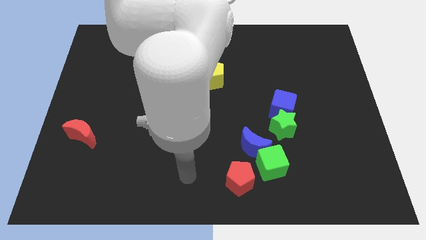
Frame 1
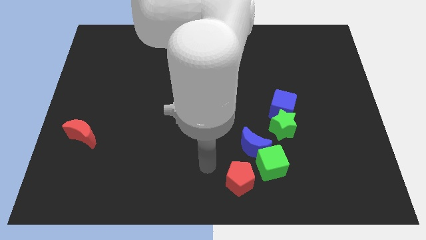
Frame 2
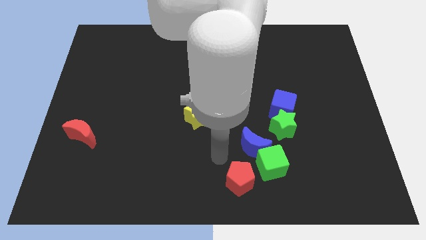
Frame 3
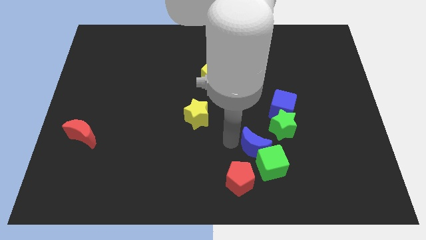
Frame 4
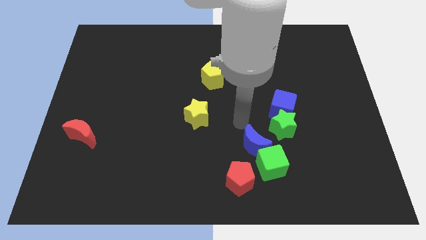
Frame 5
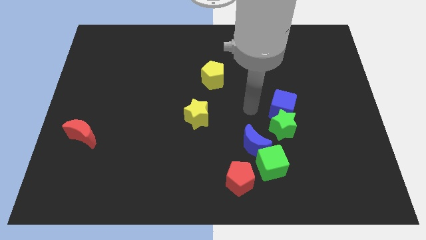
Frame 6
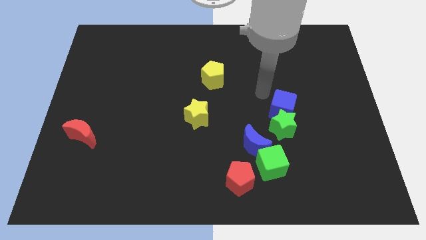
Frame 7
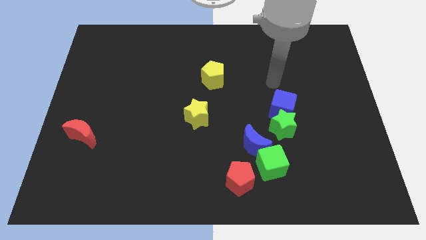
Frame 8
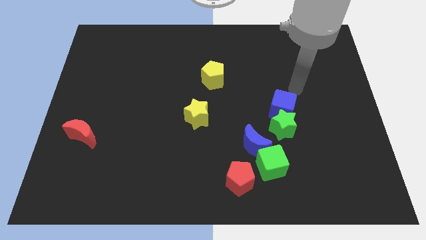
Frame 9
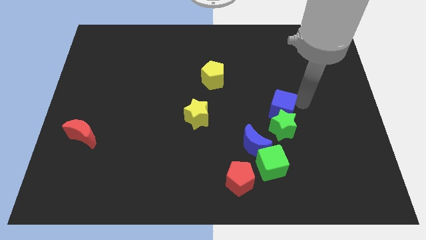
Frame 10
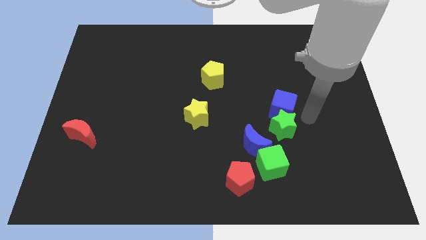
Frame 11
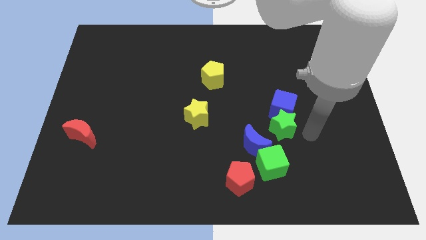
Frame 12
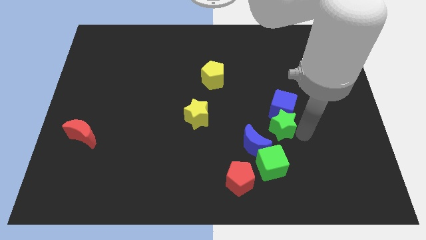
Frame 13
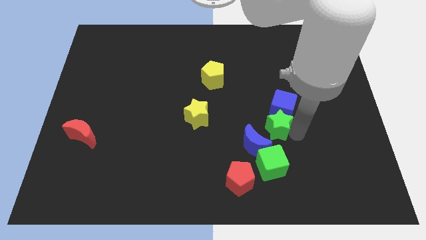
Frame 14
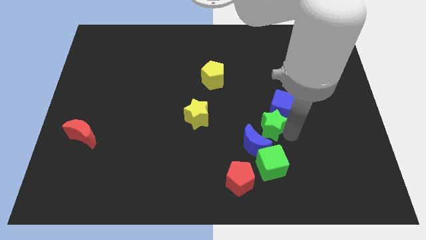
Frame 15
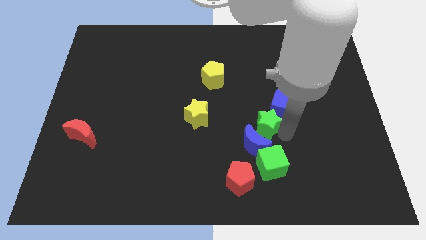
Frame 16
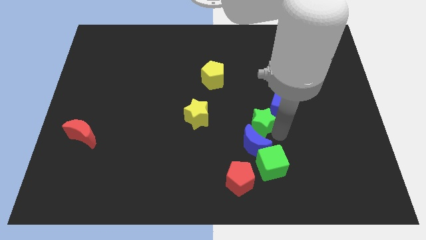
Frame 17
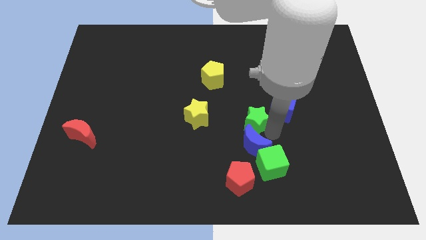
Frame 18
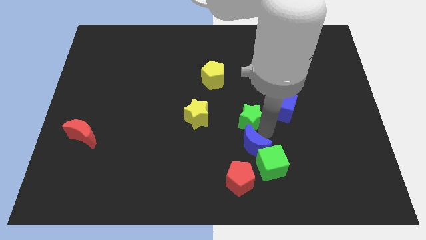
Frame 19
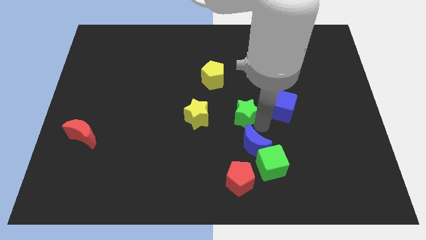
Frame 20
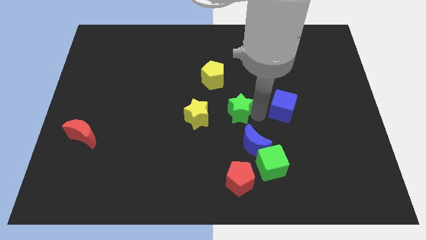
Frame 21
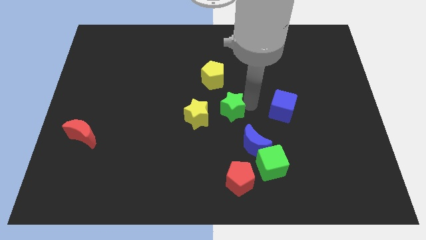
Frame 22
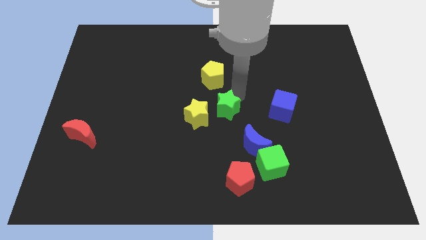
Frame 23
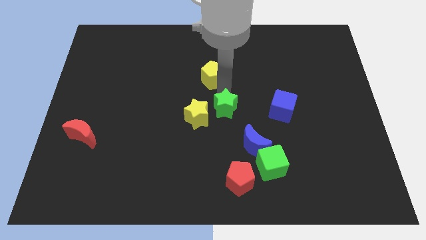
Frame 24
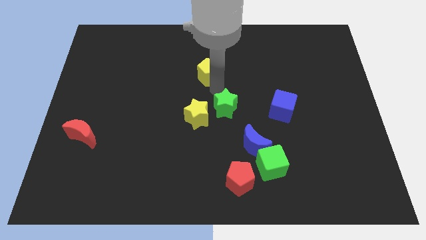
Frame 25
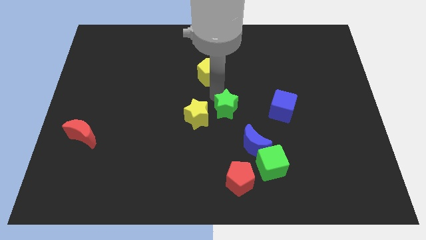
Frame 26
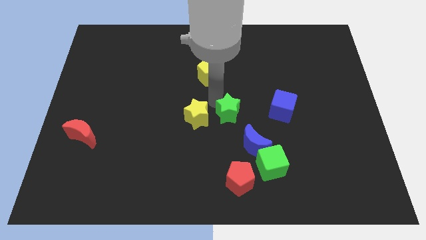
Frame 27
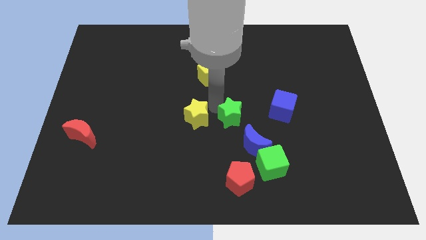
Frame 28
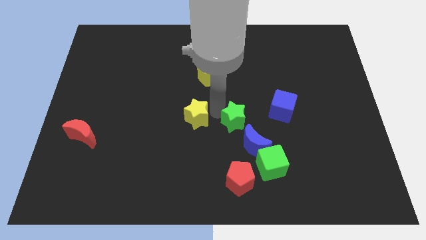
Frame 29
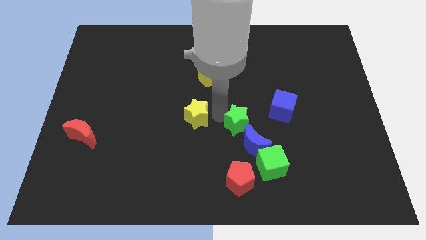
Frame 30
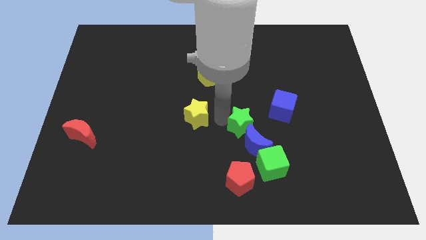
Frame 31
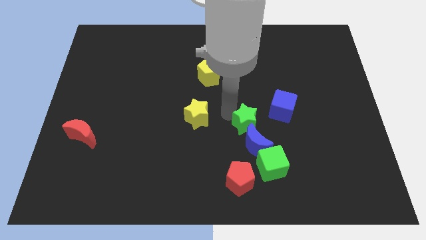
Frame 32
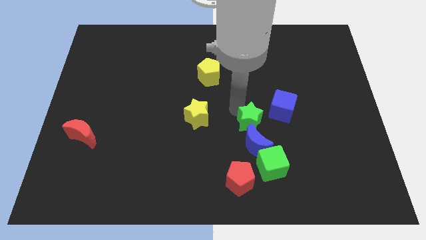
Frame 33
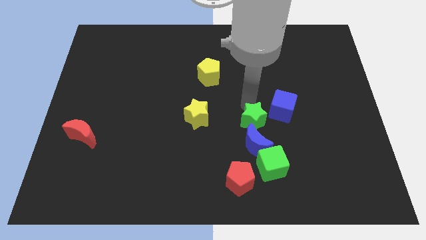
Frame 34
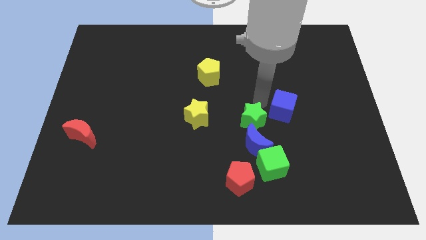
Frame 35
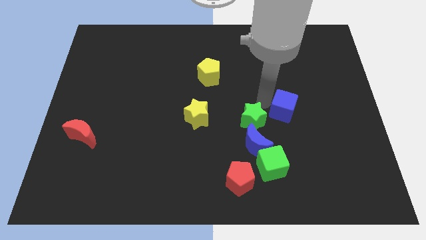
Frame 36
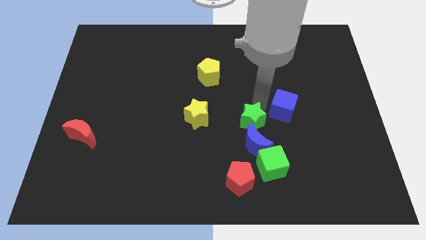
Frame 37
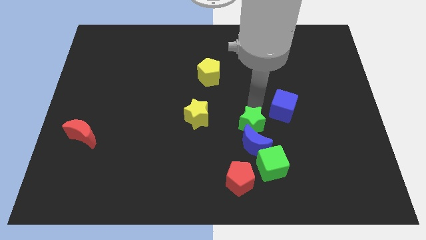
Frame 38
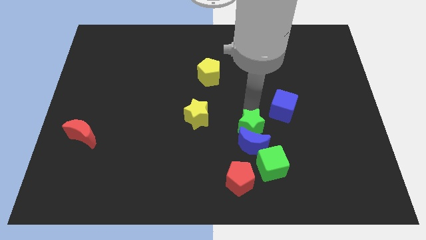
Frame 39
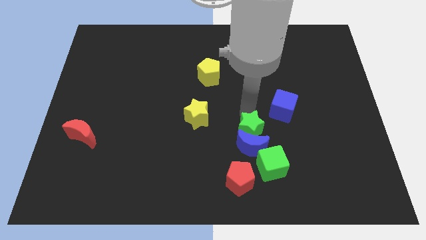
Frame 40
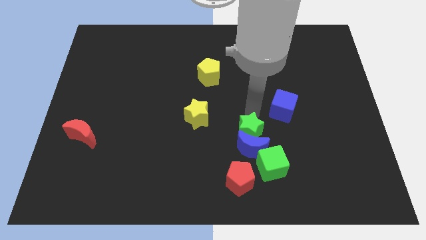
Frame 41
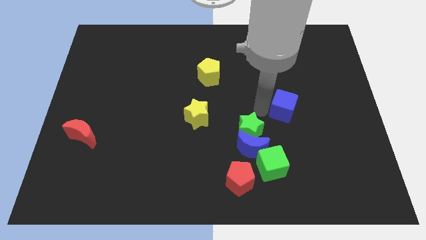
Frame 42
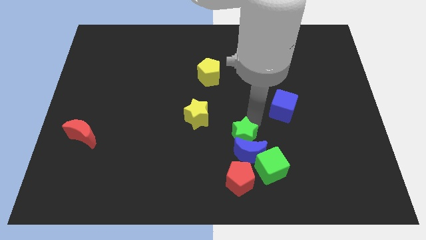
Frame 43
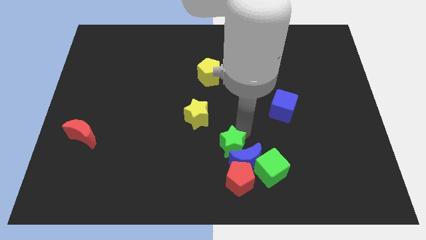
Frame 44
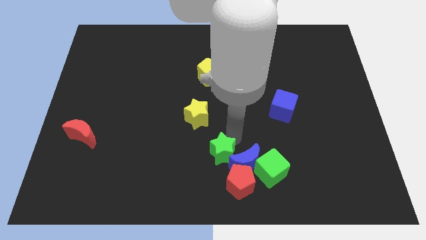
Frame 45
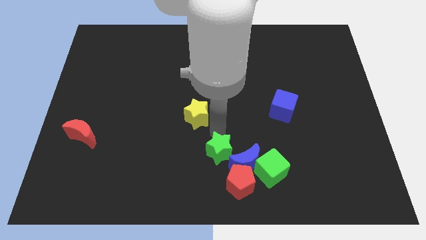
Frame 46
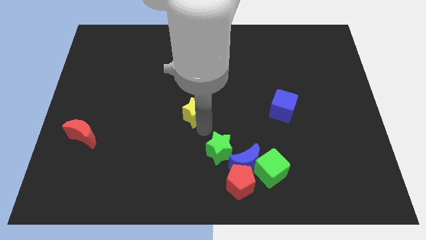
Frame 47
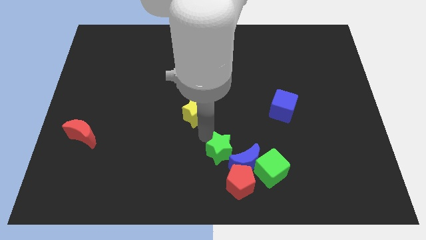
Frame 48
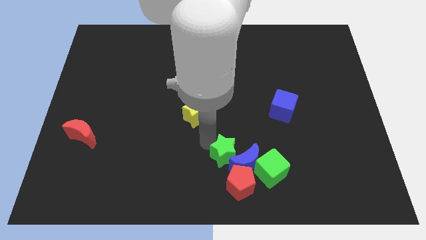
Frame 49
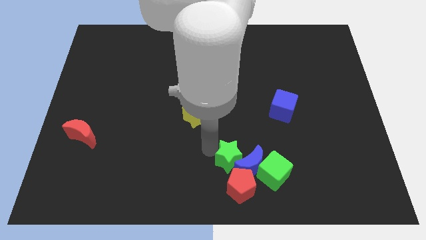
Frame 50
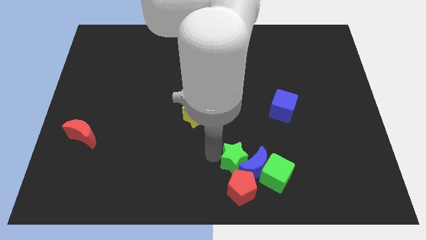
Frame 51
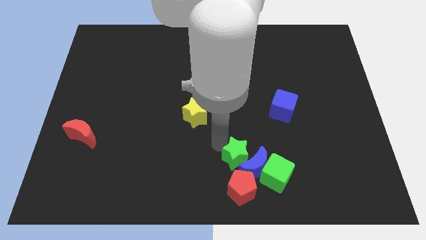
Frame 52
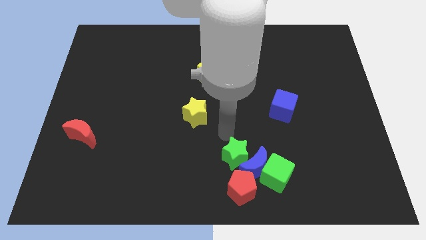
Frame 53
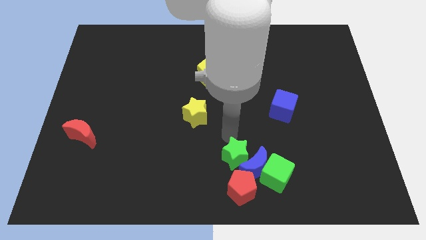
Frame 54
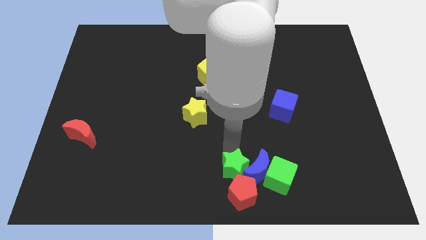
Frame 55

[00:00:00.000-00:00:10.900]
push the green star towards the red pentagon

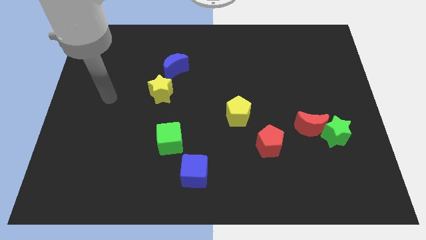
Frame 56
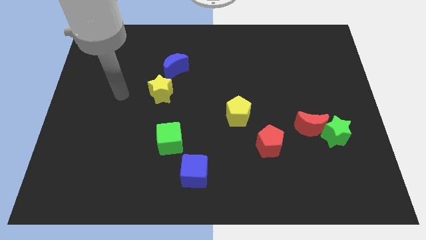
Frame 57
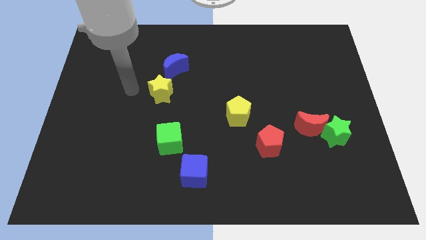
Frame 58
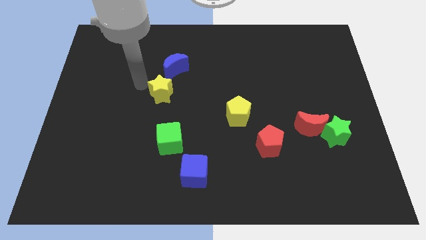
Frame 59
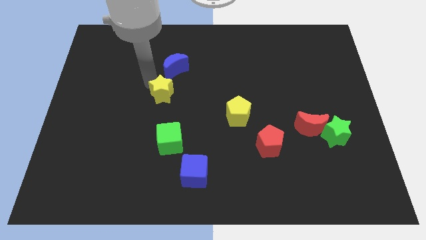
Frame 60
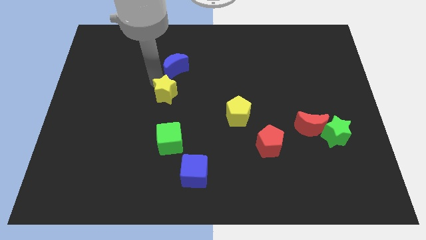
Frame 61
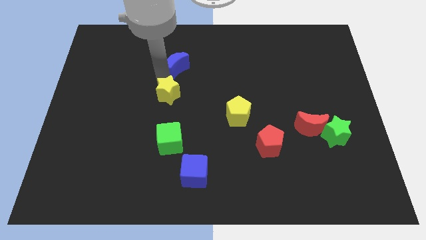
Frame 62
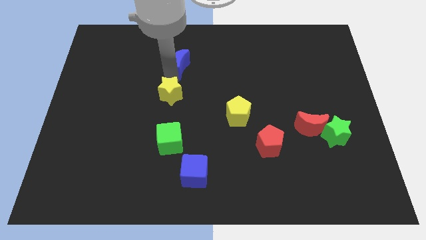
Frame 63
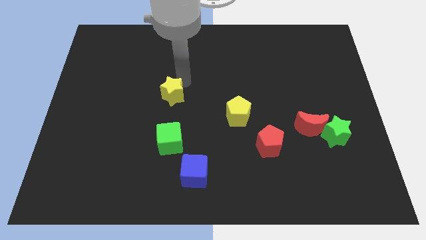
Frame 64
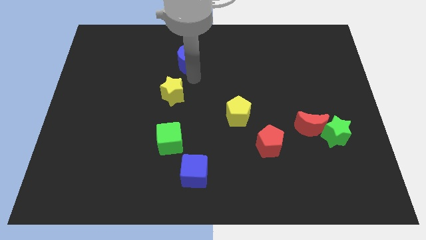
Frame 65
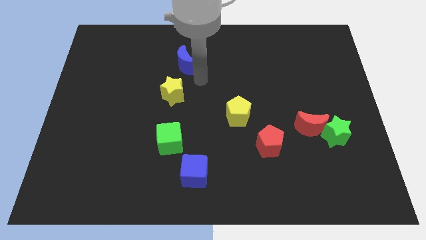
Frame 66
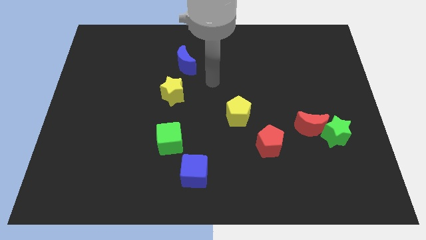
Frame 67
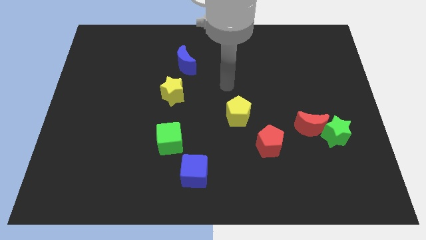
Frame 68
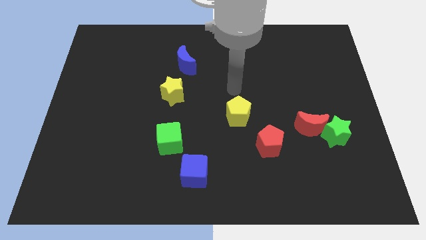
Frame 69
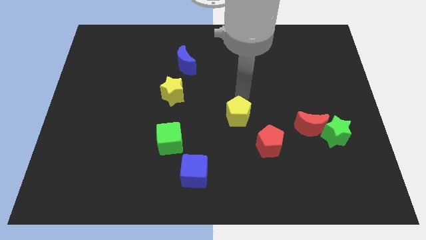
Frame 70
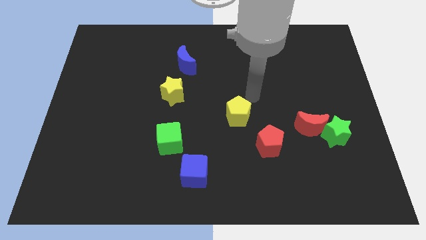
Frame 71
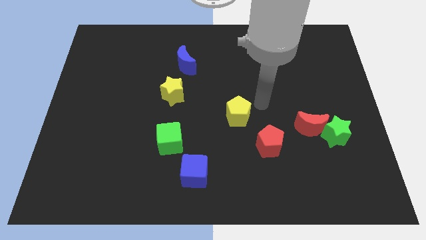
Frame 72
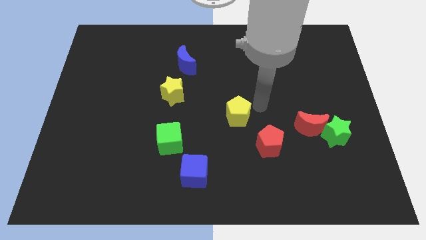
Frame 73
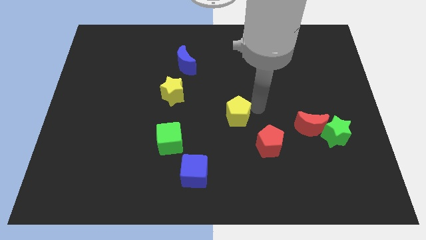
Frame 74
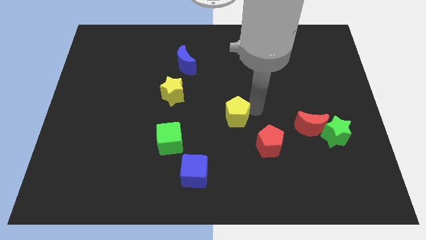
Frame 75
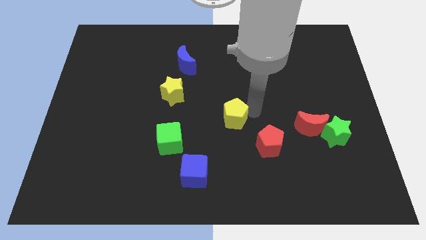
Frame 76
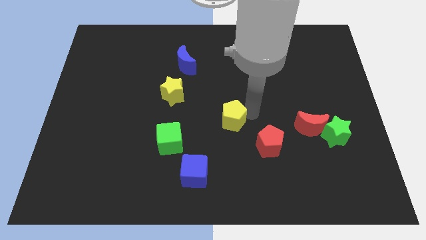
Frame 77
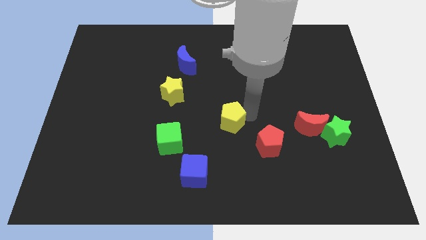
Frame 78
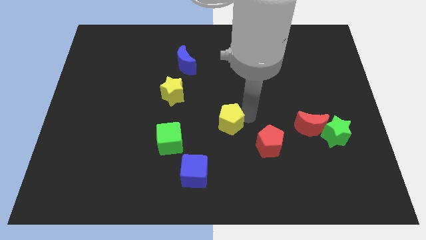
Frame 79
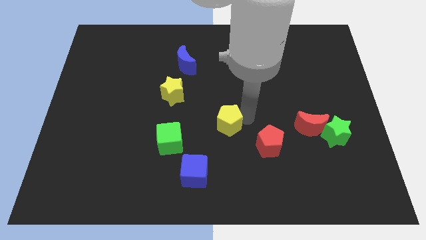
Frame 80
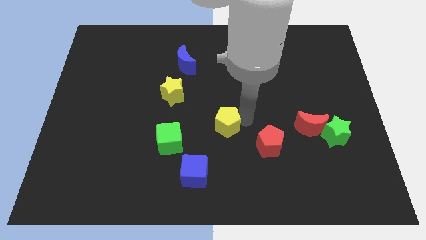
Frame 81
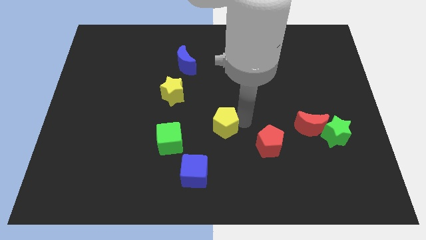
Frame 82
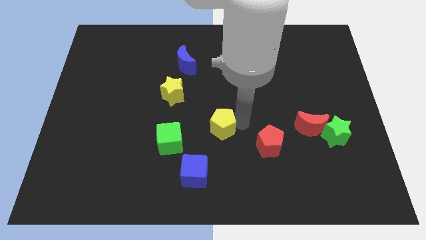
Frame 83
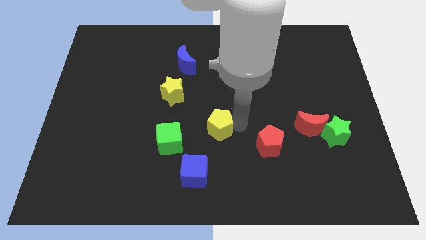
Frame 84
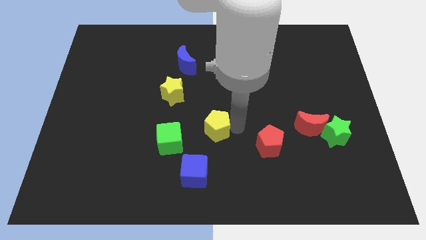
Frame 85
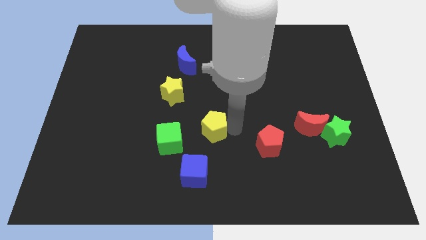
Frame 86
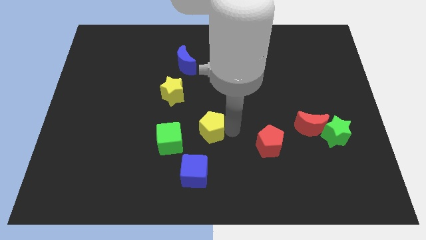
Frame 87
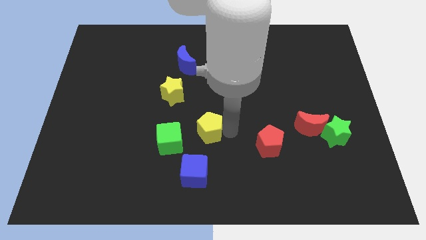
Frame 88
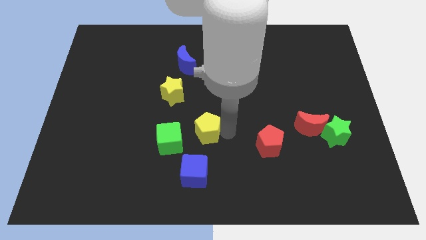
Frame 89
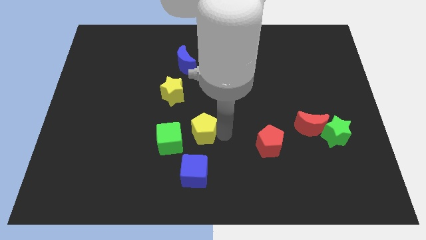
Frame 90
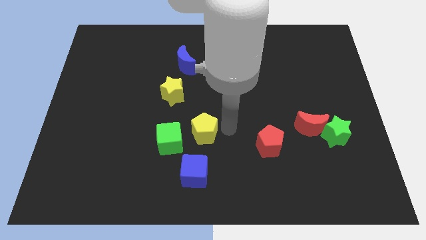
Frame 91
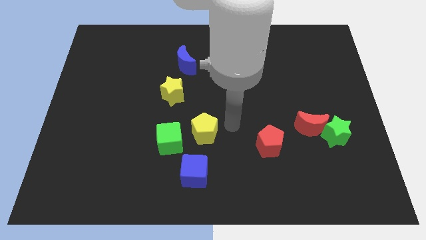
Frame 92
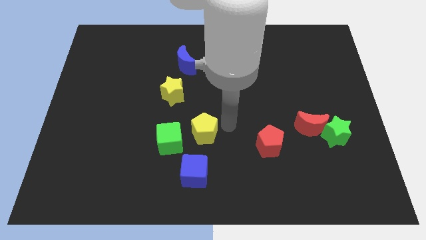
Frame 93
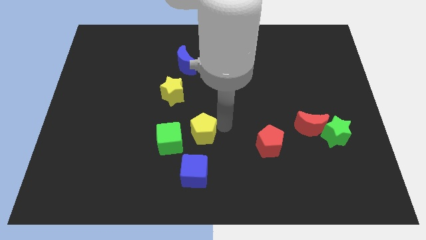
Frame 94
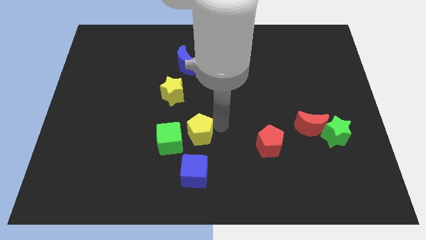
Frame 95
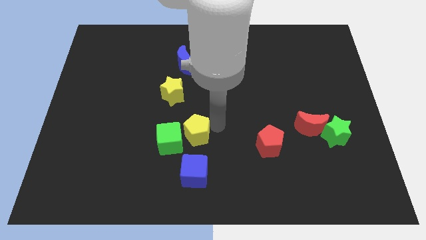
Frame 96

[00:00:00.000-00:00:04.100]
put the yellow pentagon next to the green cube
